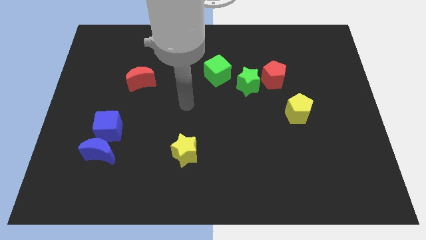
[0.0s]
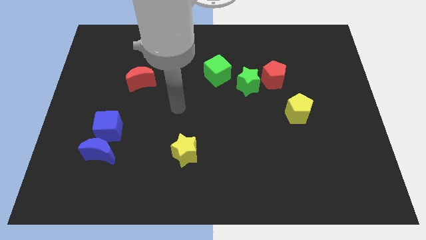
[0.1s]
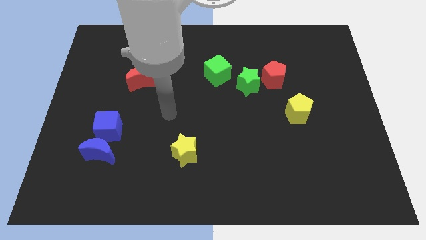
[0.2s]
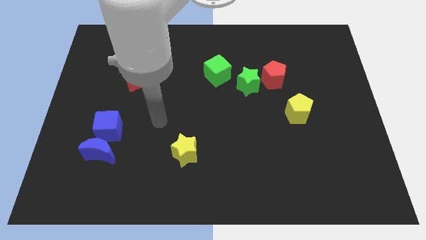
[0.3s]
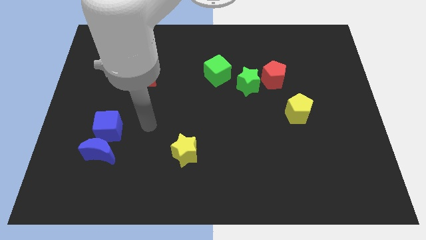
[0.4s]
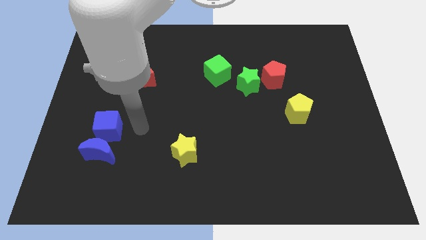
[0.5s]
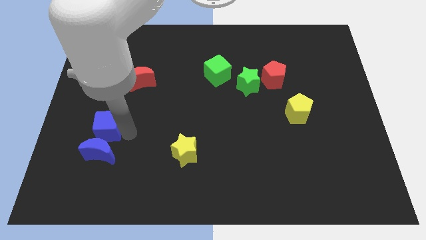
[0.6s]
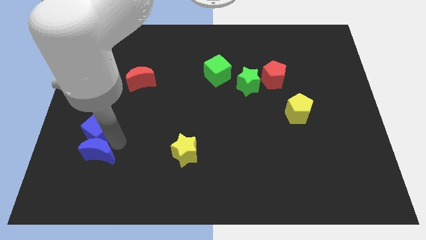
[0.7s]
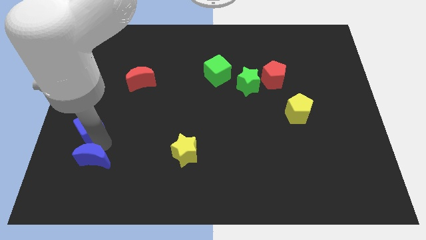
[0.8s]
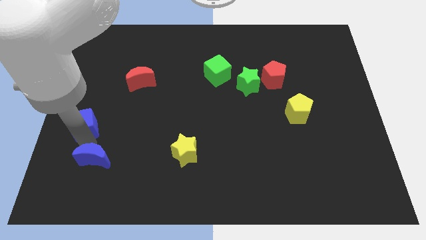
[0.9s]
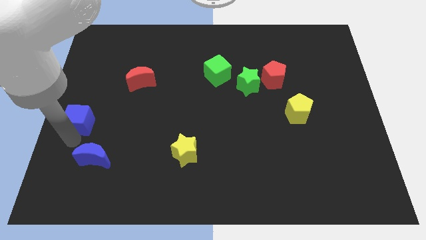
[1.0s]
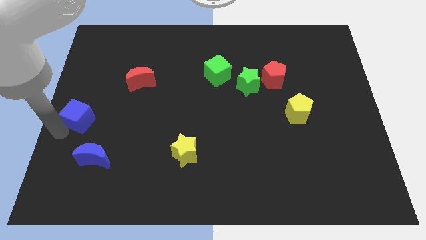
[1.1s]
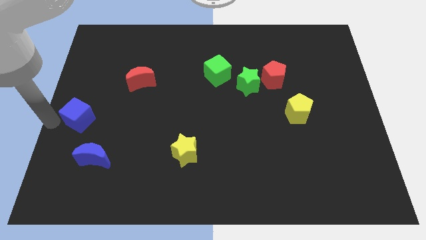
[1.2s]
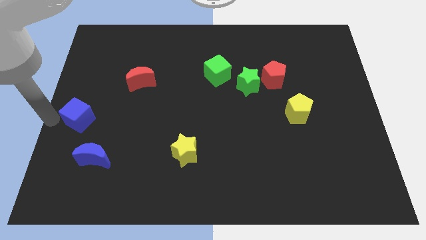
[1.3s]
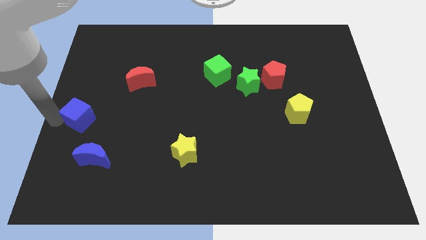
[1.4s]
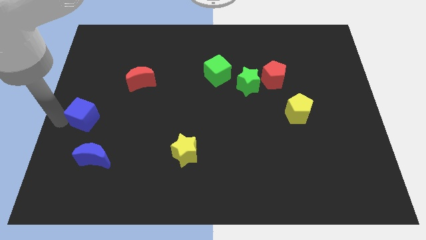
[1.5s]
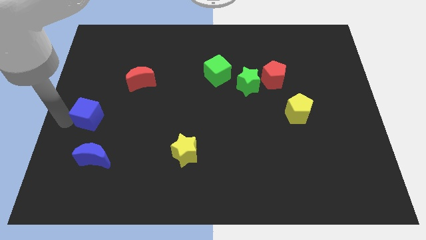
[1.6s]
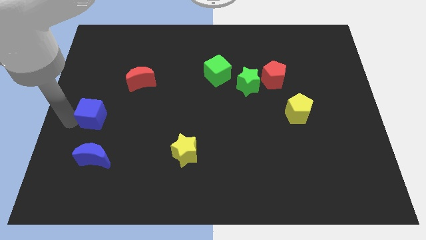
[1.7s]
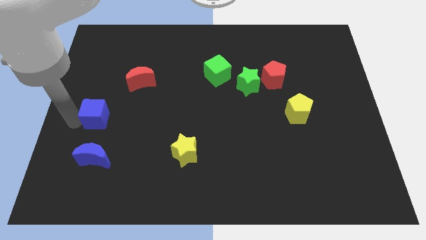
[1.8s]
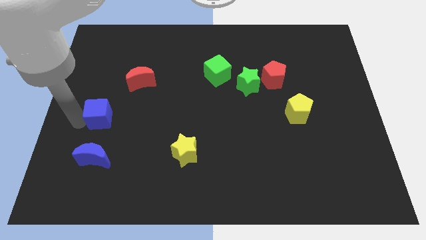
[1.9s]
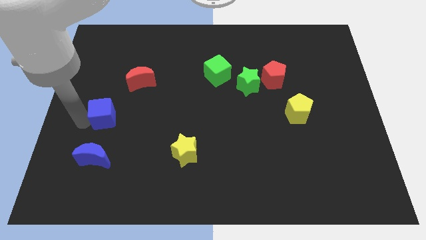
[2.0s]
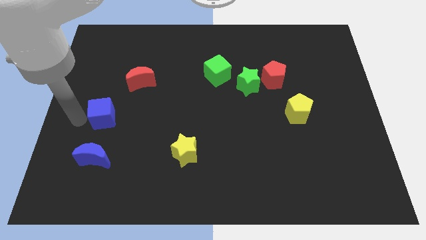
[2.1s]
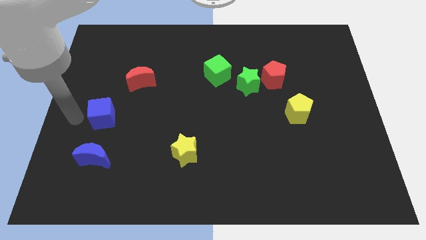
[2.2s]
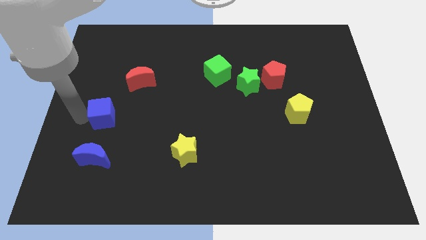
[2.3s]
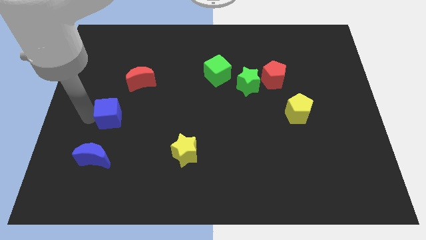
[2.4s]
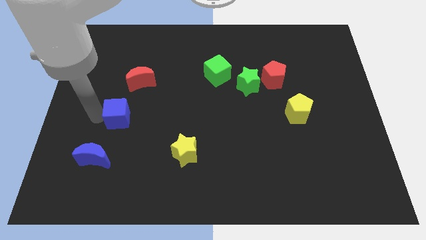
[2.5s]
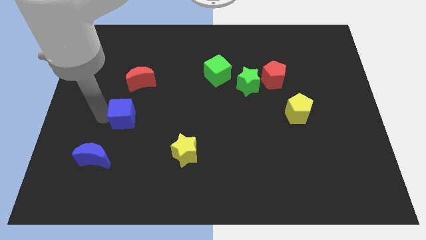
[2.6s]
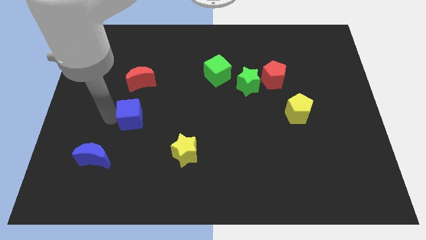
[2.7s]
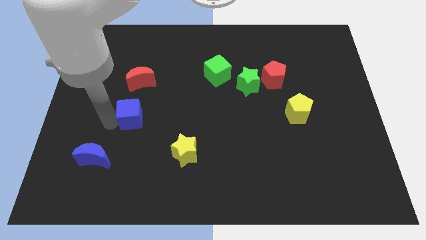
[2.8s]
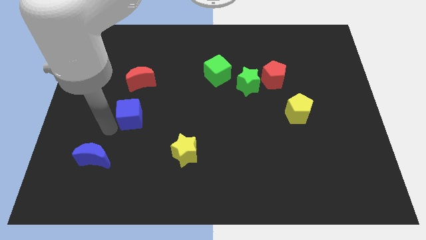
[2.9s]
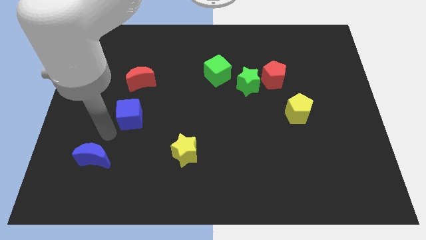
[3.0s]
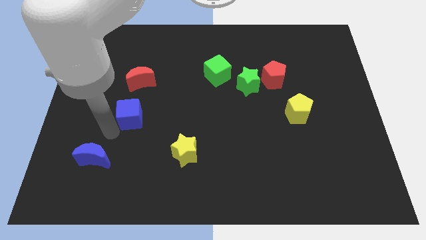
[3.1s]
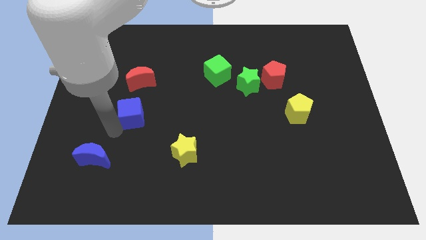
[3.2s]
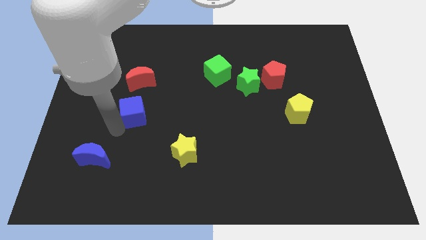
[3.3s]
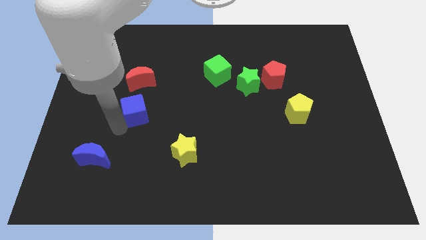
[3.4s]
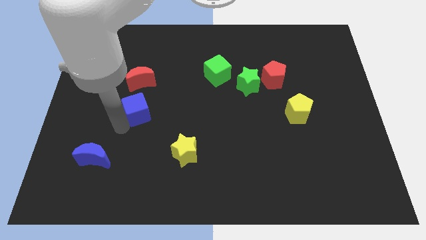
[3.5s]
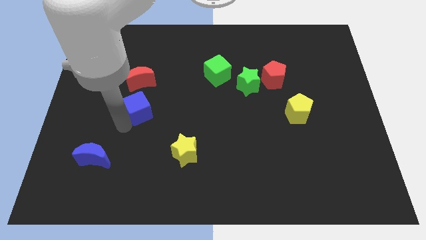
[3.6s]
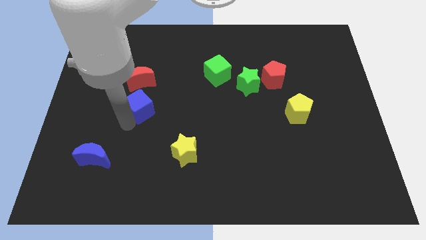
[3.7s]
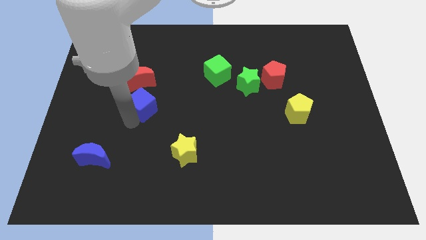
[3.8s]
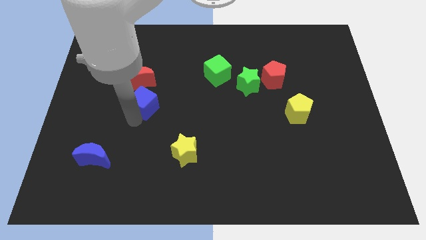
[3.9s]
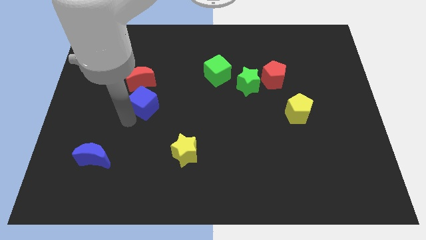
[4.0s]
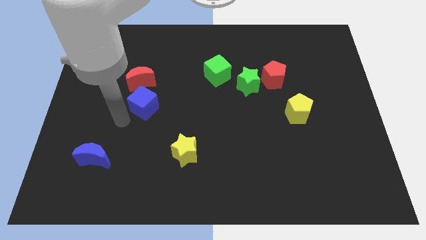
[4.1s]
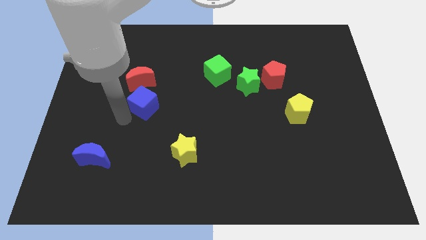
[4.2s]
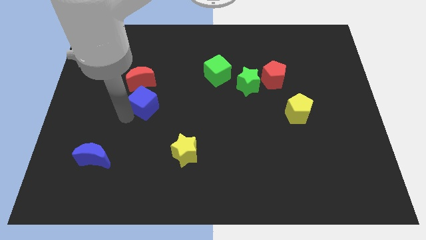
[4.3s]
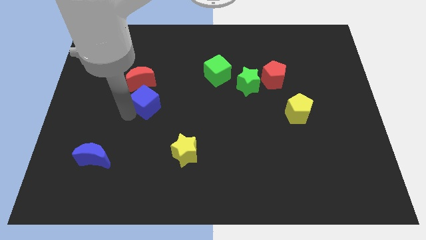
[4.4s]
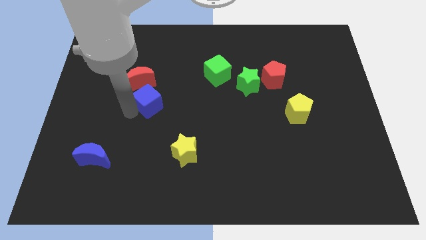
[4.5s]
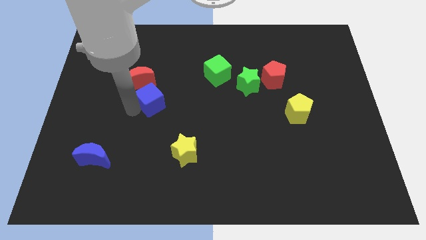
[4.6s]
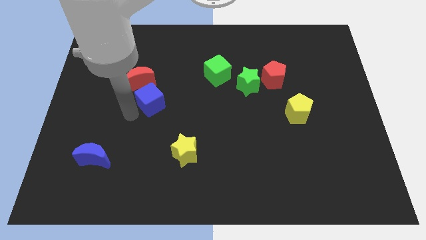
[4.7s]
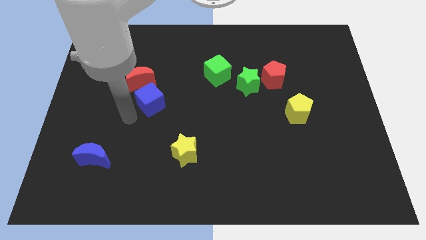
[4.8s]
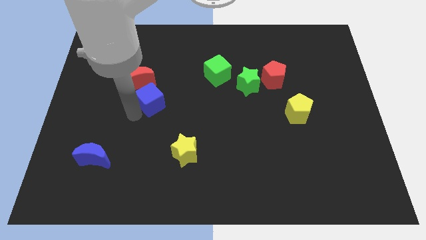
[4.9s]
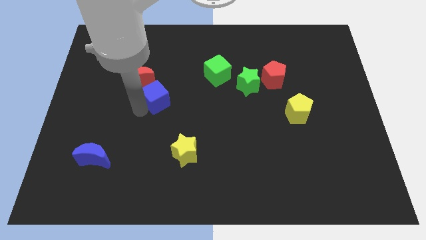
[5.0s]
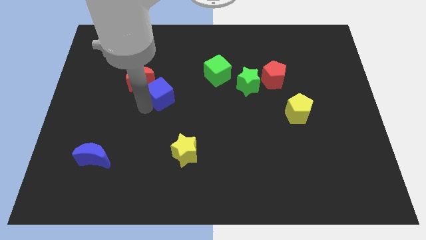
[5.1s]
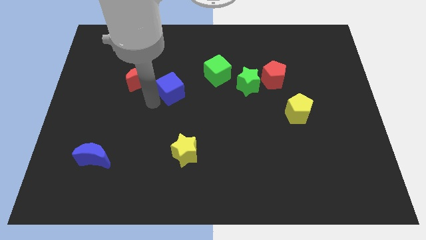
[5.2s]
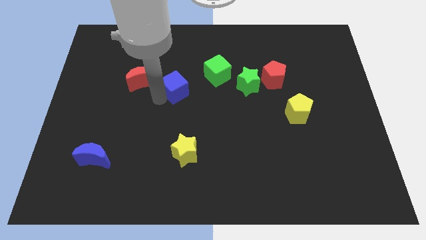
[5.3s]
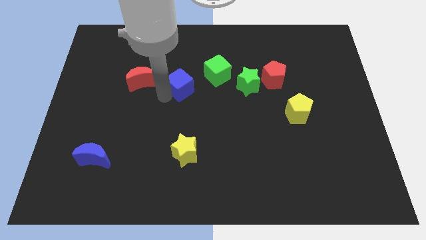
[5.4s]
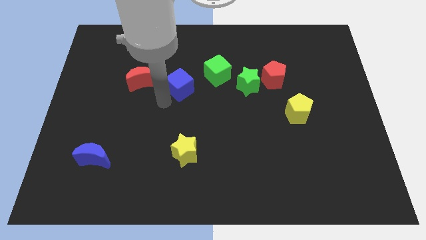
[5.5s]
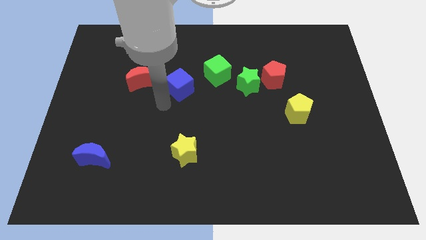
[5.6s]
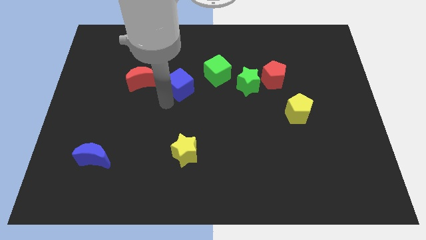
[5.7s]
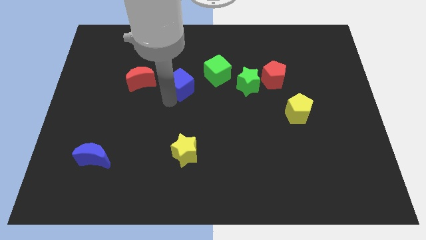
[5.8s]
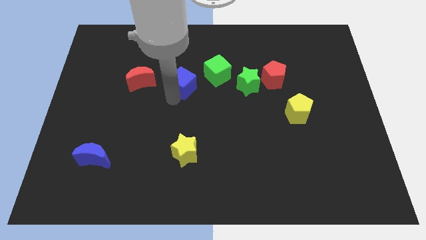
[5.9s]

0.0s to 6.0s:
slide the blue cube up and to the right

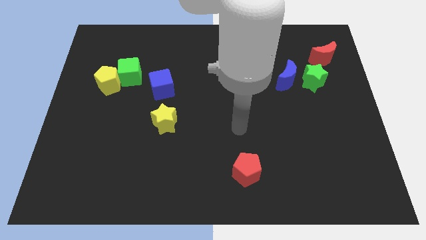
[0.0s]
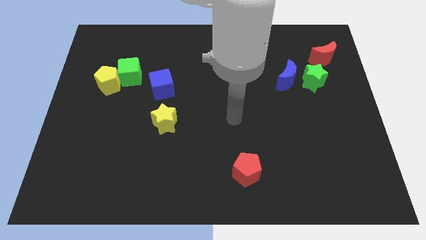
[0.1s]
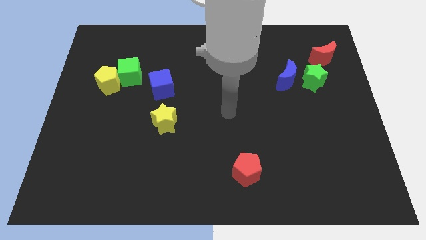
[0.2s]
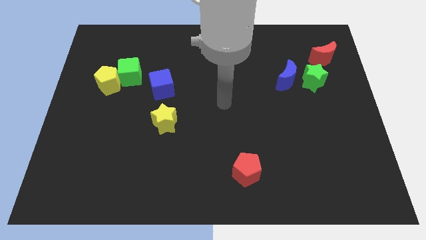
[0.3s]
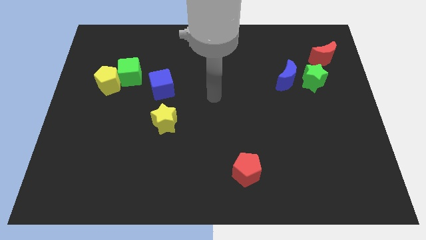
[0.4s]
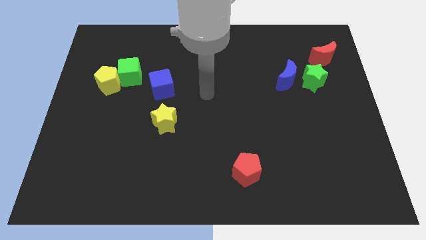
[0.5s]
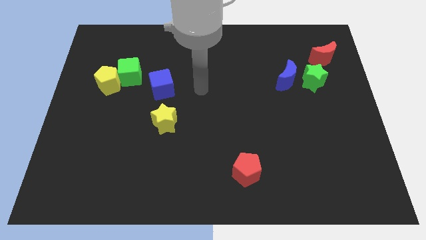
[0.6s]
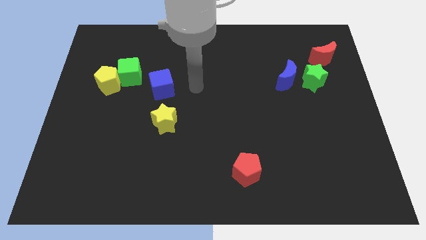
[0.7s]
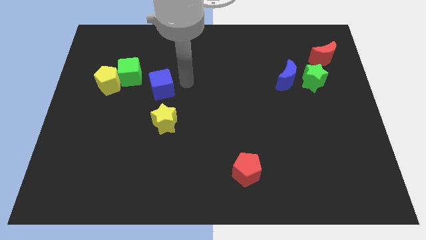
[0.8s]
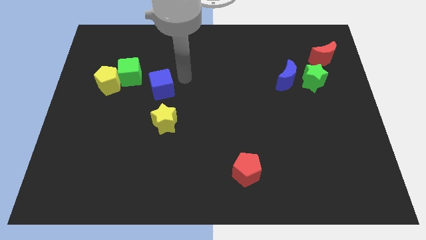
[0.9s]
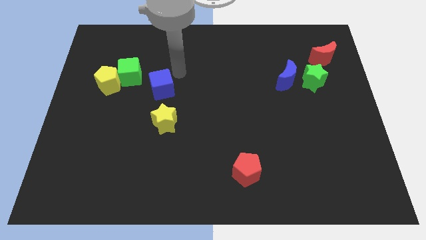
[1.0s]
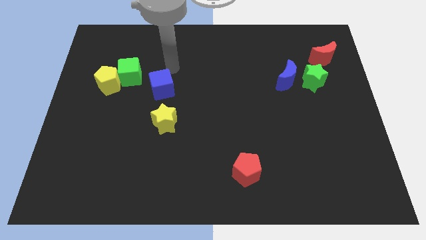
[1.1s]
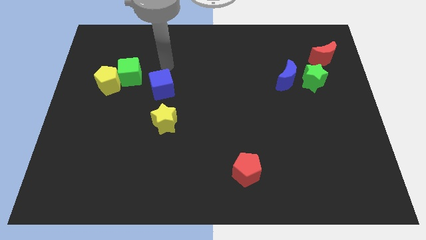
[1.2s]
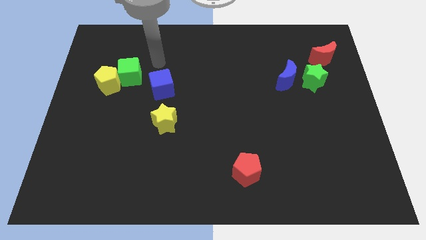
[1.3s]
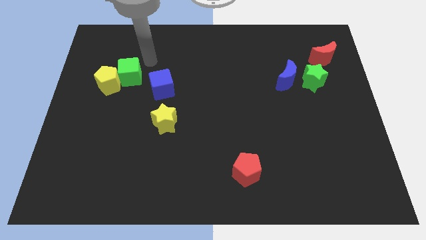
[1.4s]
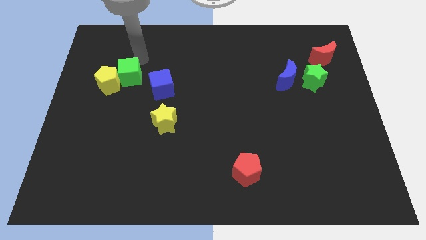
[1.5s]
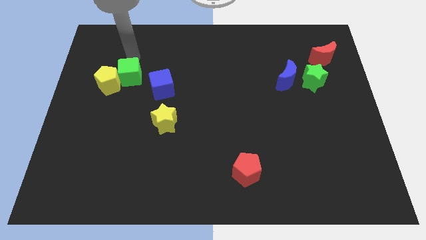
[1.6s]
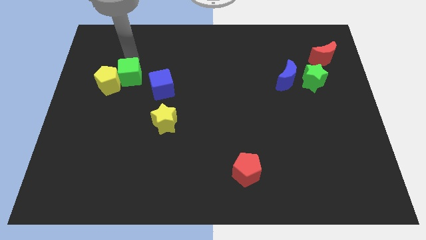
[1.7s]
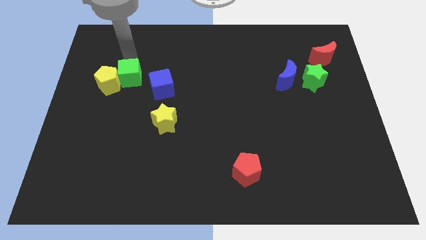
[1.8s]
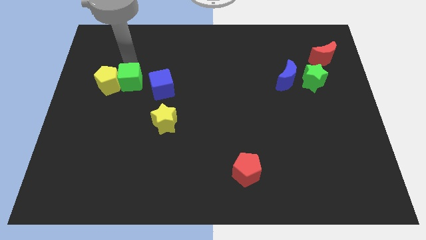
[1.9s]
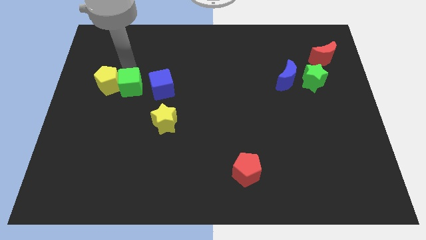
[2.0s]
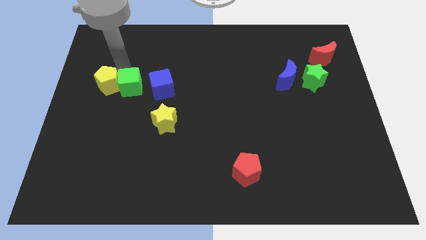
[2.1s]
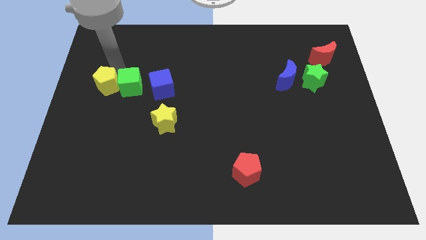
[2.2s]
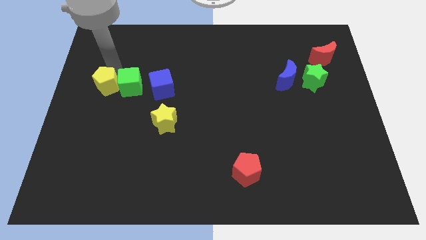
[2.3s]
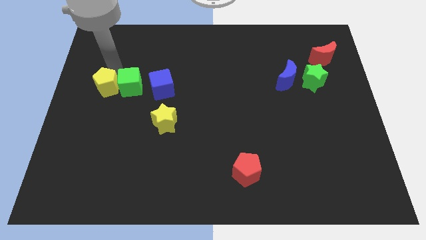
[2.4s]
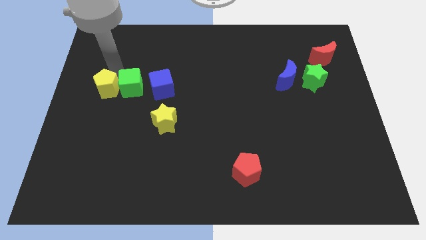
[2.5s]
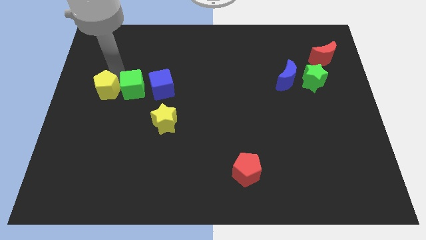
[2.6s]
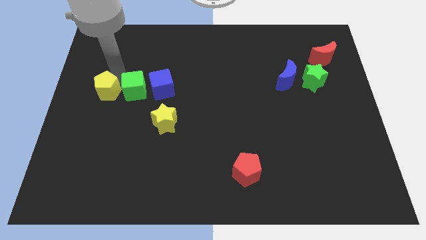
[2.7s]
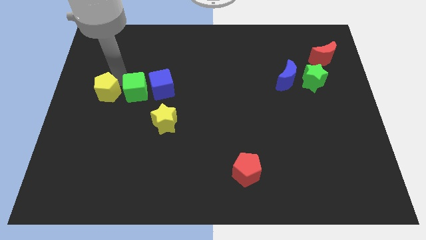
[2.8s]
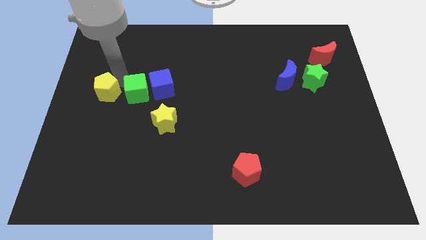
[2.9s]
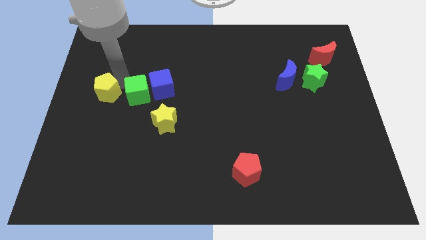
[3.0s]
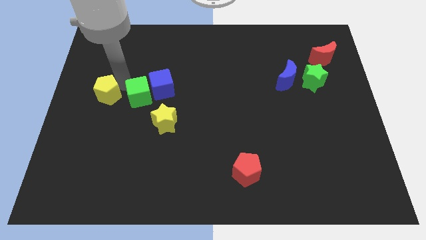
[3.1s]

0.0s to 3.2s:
push the green cube downwards and right a little
